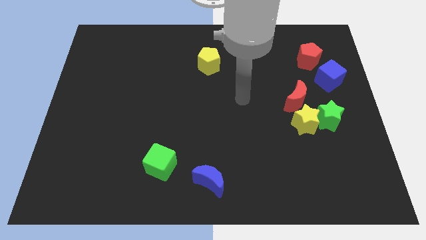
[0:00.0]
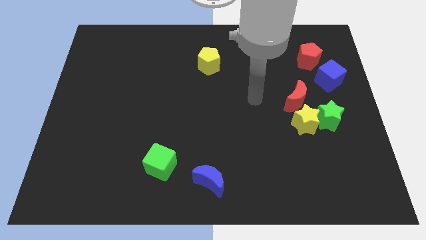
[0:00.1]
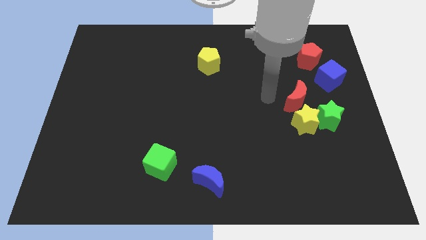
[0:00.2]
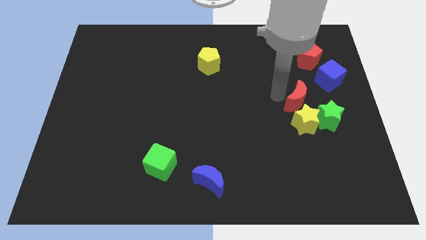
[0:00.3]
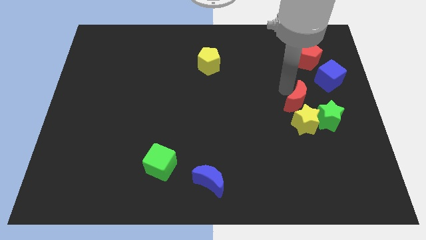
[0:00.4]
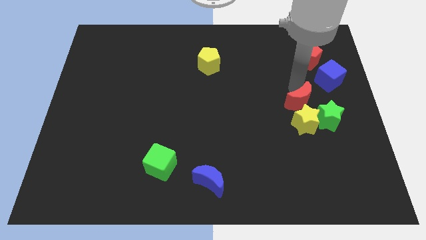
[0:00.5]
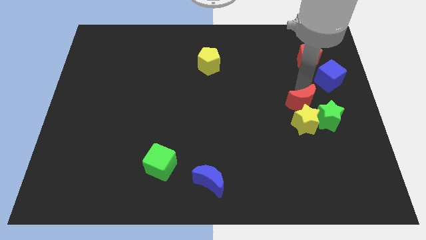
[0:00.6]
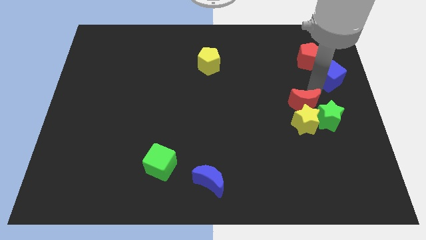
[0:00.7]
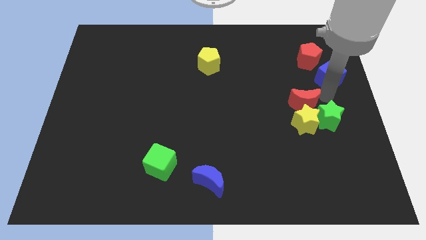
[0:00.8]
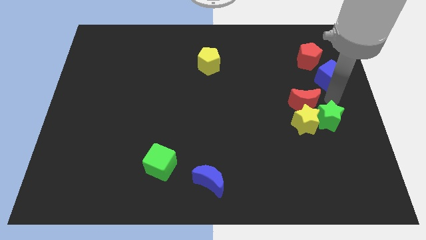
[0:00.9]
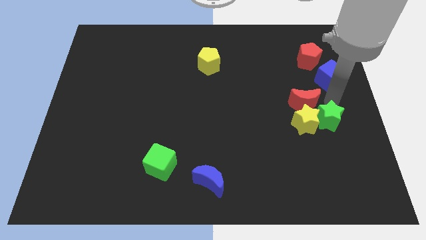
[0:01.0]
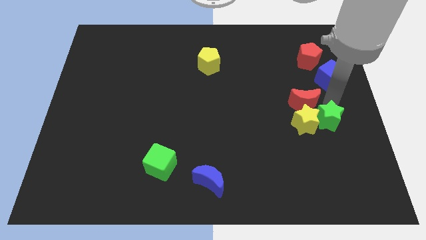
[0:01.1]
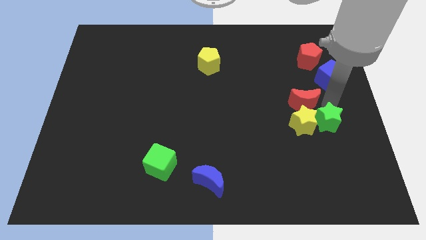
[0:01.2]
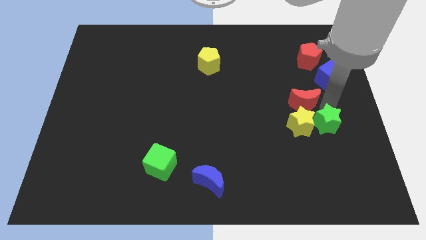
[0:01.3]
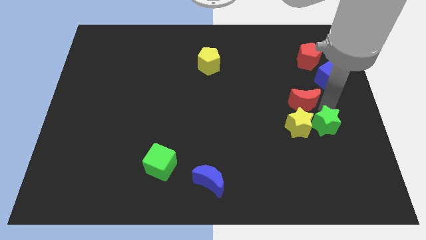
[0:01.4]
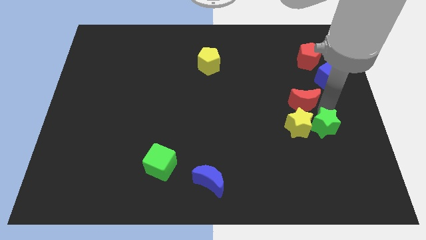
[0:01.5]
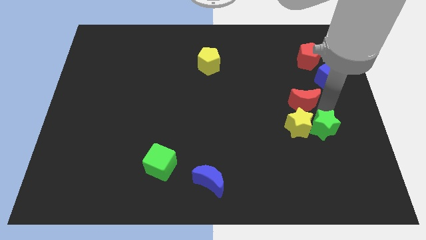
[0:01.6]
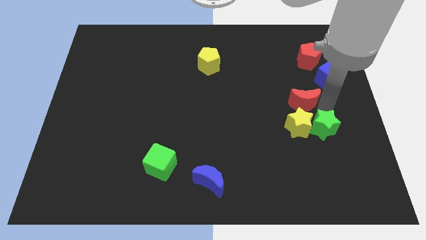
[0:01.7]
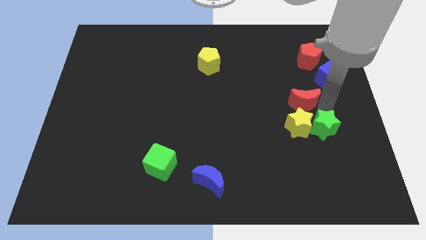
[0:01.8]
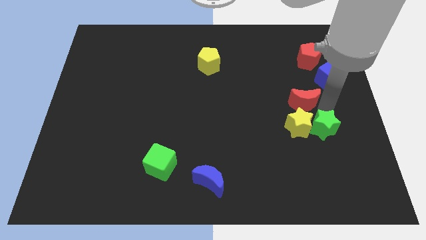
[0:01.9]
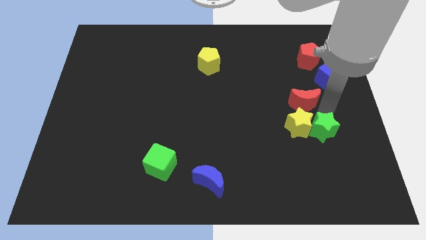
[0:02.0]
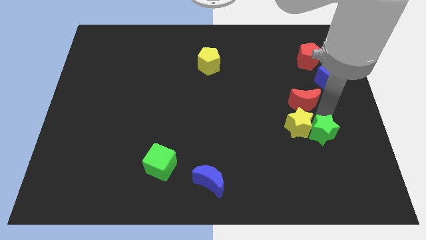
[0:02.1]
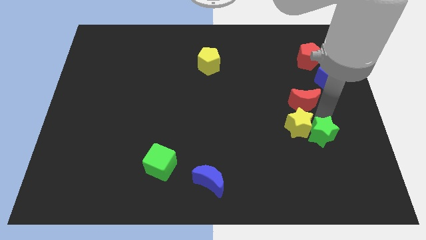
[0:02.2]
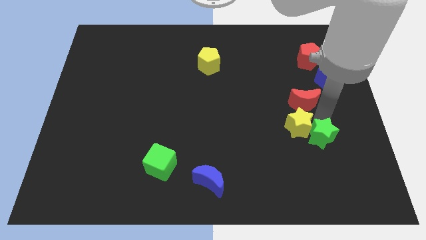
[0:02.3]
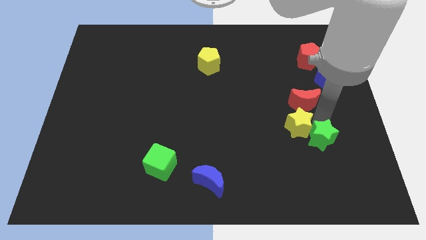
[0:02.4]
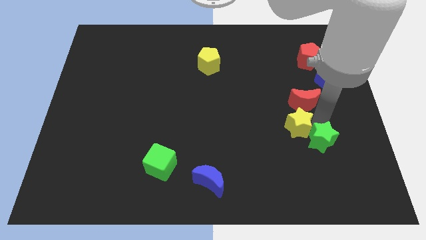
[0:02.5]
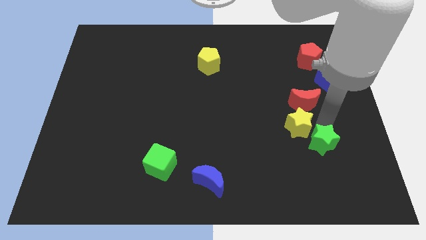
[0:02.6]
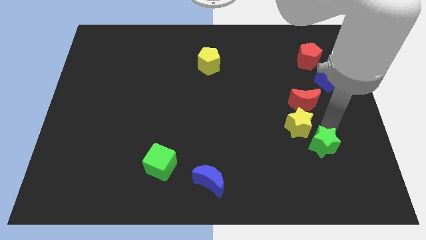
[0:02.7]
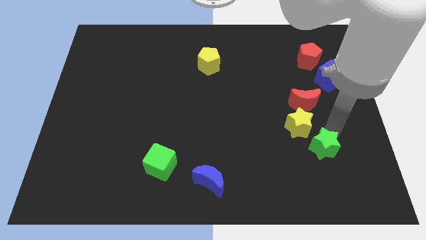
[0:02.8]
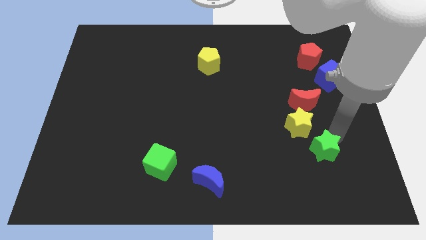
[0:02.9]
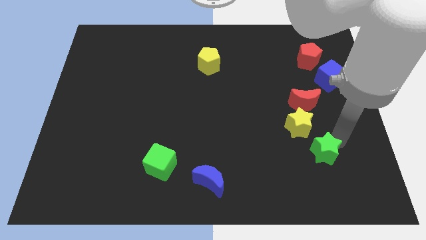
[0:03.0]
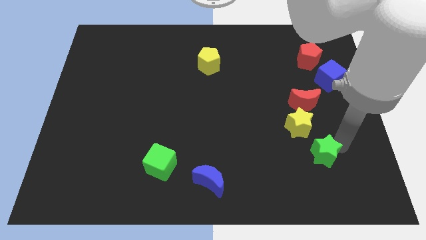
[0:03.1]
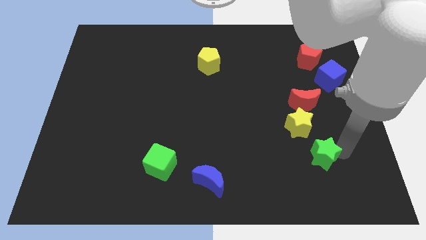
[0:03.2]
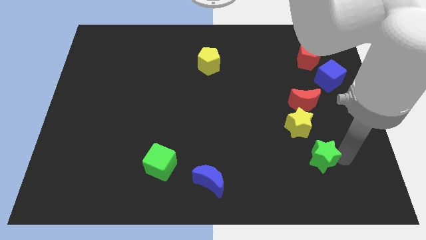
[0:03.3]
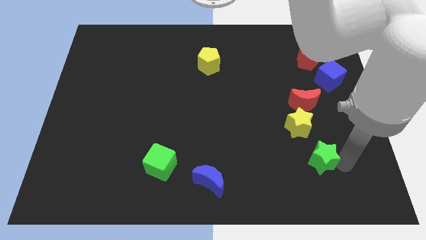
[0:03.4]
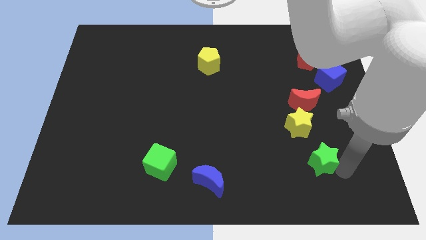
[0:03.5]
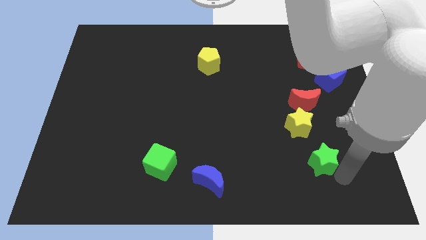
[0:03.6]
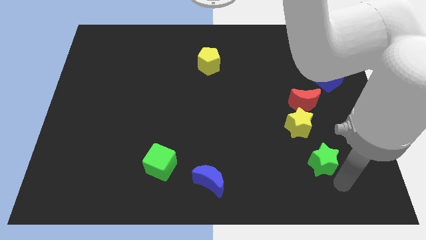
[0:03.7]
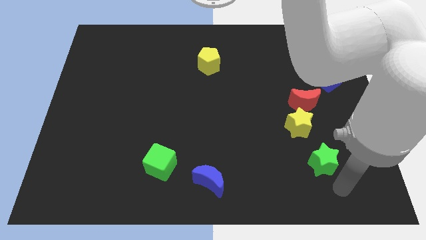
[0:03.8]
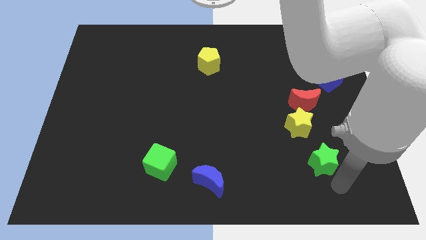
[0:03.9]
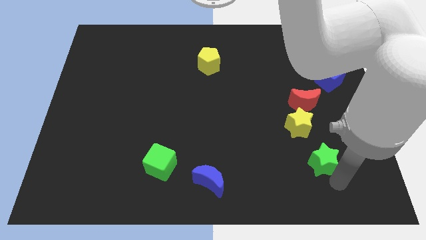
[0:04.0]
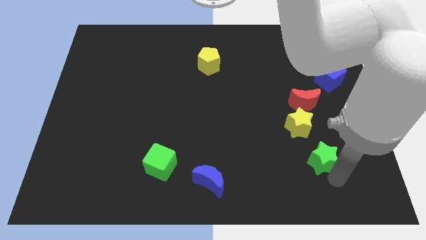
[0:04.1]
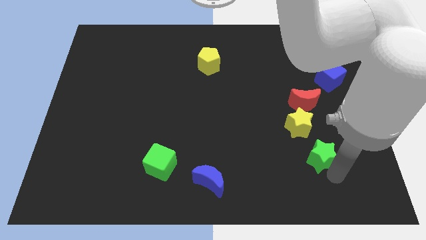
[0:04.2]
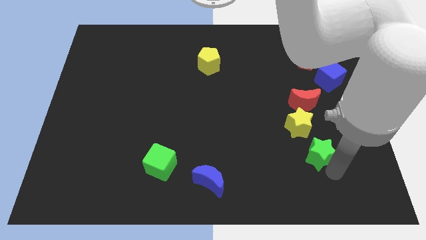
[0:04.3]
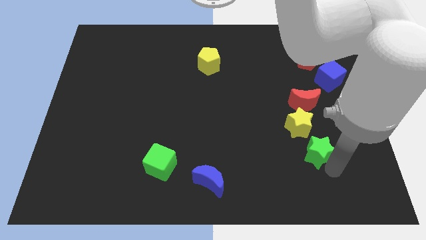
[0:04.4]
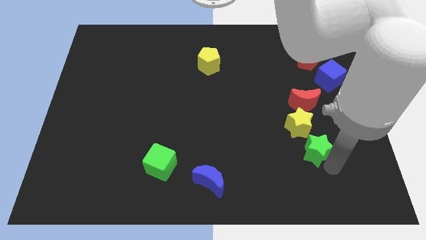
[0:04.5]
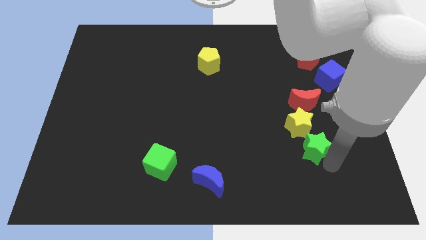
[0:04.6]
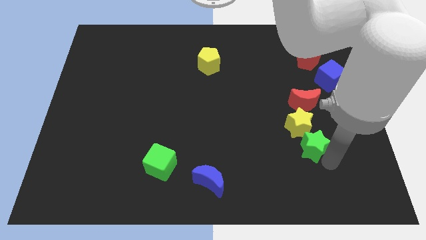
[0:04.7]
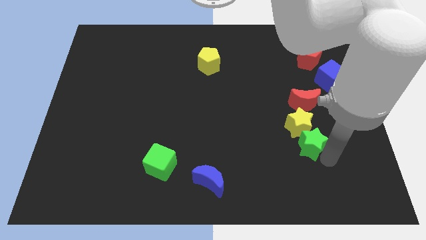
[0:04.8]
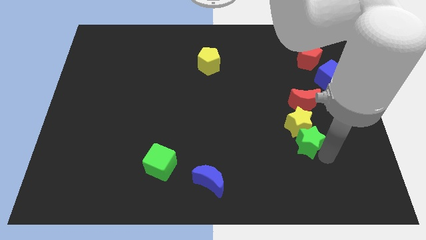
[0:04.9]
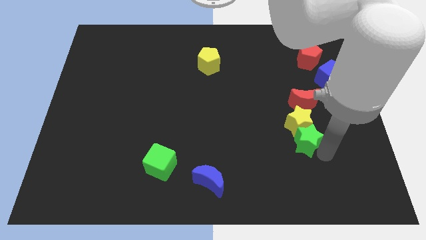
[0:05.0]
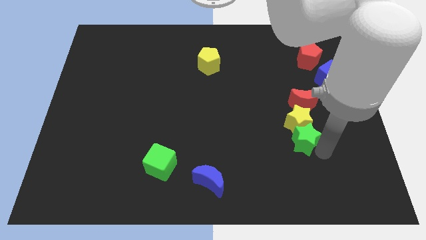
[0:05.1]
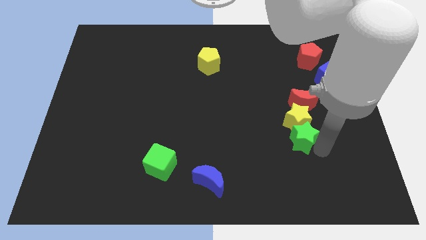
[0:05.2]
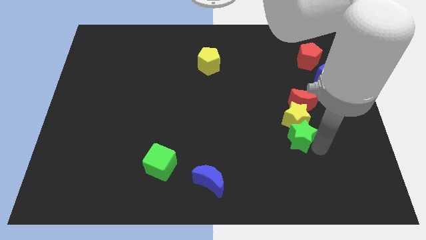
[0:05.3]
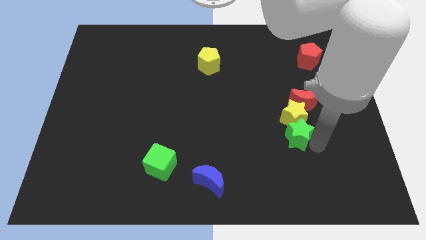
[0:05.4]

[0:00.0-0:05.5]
slightly move the green star to the left

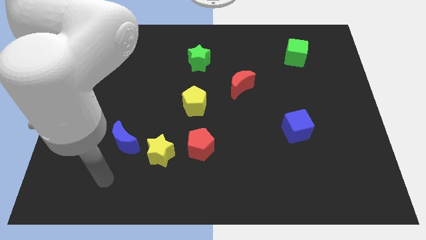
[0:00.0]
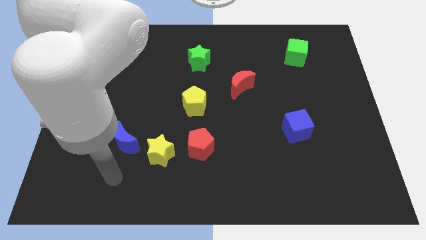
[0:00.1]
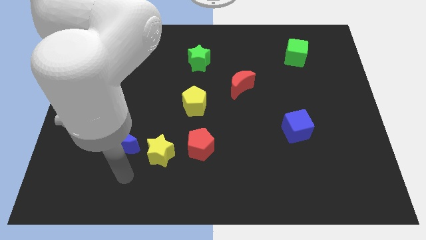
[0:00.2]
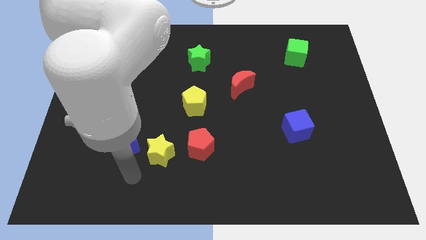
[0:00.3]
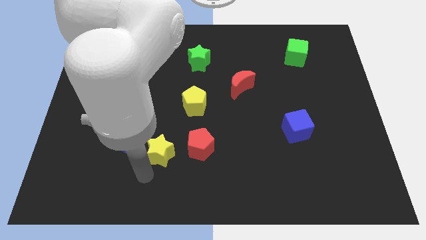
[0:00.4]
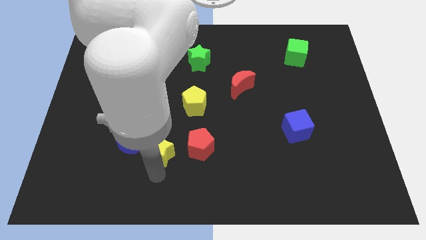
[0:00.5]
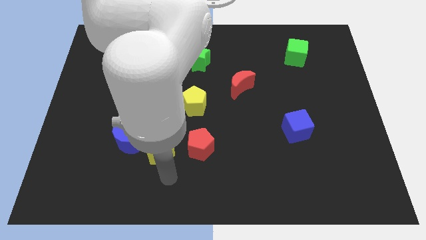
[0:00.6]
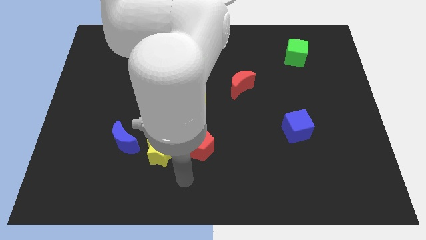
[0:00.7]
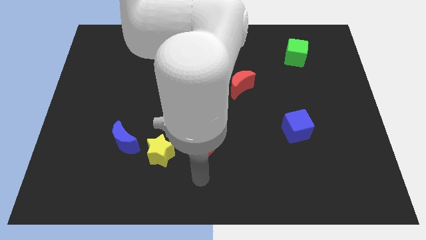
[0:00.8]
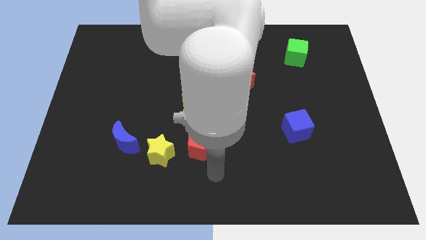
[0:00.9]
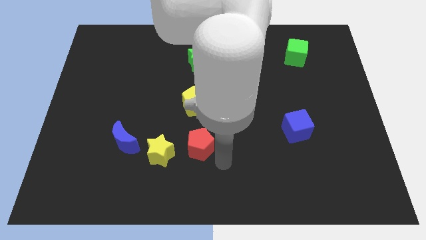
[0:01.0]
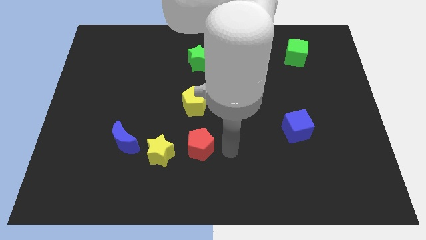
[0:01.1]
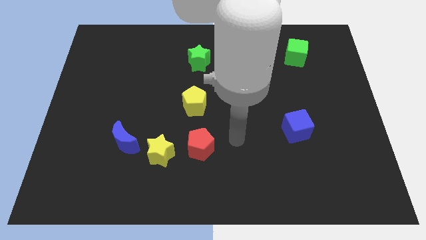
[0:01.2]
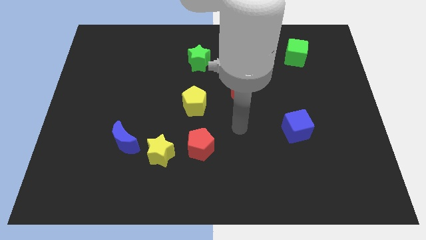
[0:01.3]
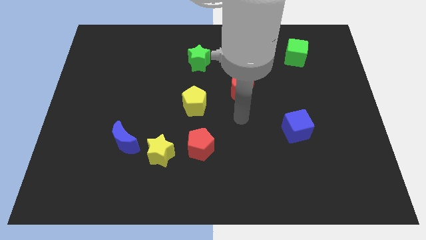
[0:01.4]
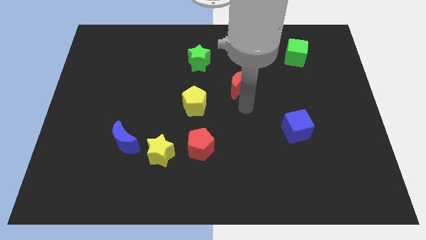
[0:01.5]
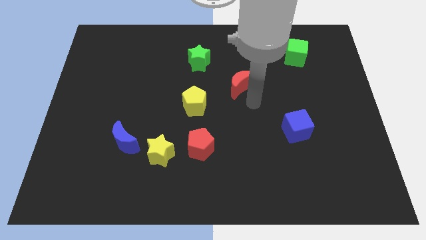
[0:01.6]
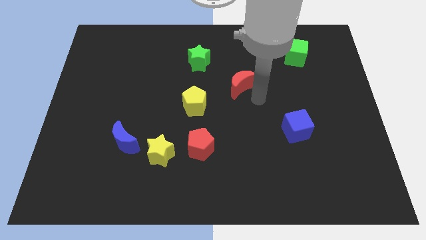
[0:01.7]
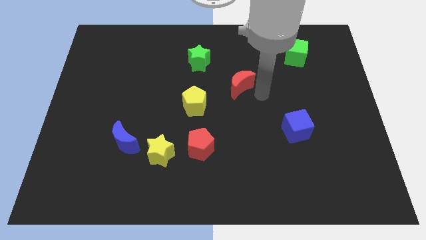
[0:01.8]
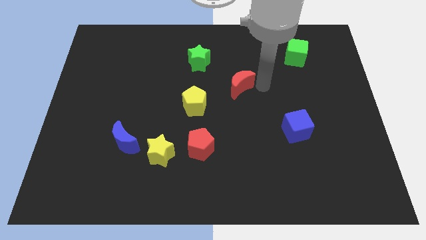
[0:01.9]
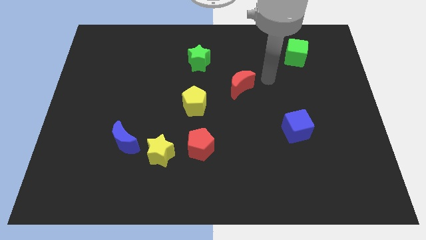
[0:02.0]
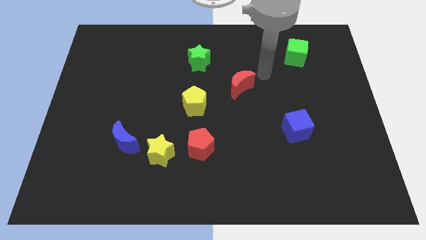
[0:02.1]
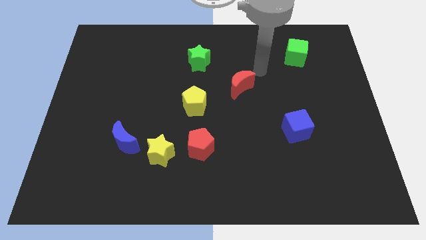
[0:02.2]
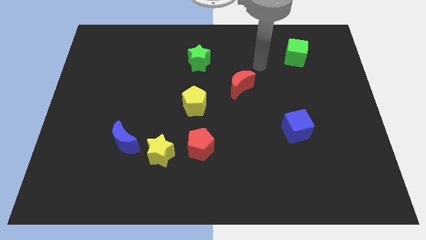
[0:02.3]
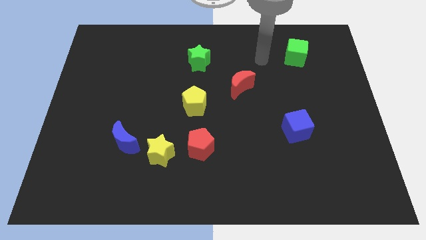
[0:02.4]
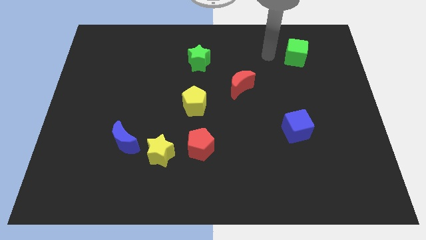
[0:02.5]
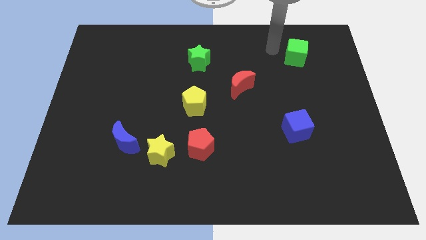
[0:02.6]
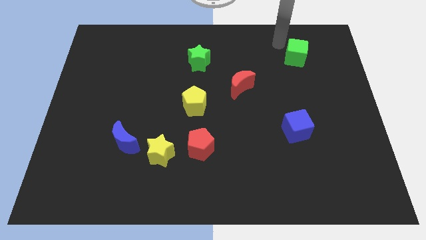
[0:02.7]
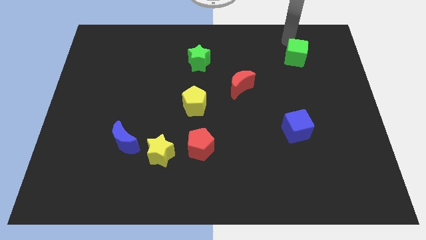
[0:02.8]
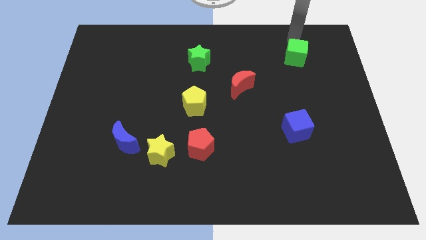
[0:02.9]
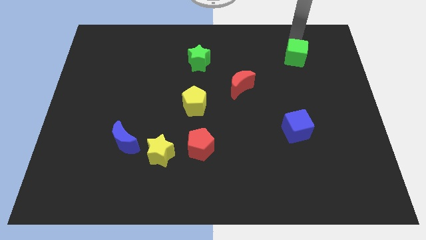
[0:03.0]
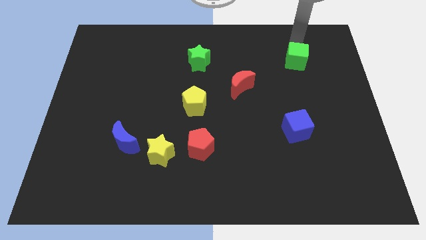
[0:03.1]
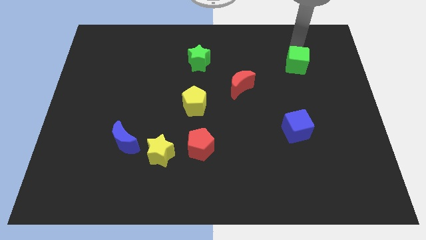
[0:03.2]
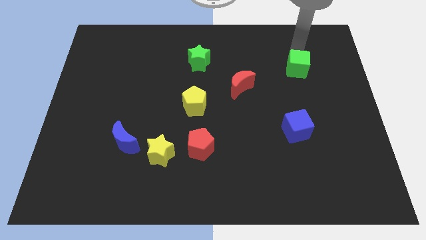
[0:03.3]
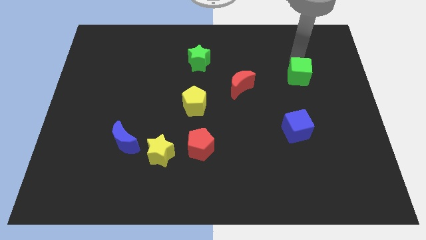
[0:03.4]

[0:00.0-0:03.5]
move the green cube a little bit downwards
